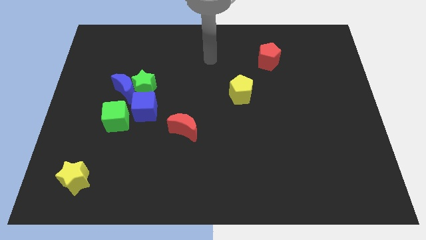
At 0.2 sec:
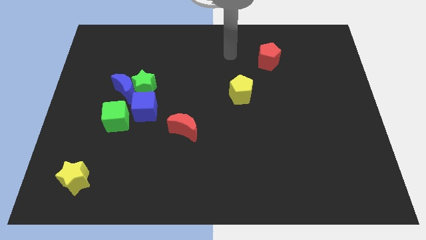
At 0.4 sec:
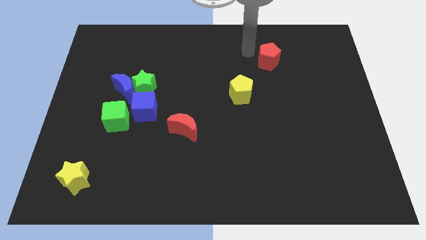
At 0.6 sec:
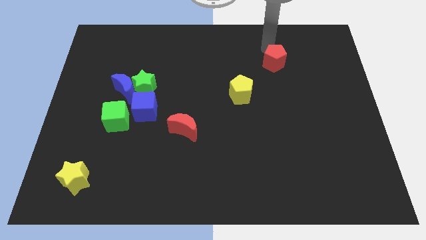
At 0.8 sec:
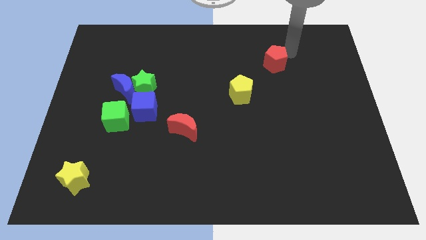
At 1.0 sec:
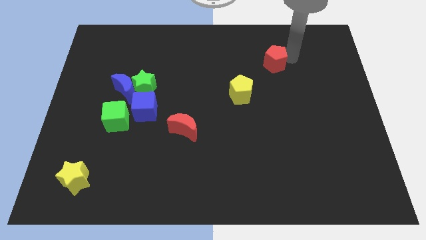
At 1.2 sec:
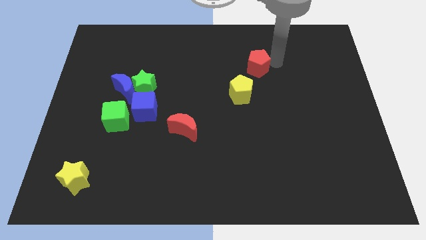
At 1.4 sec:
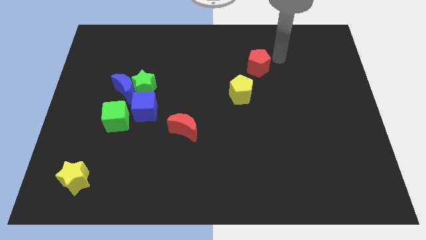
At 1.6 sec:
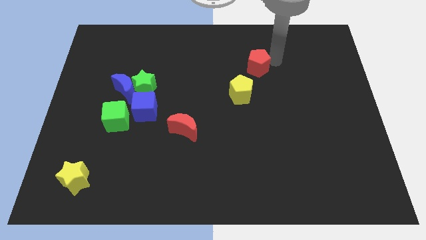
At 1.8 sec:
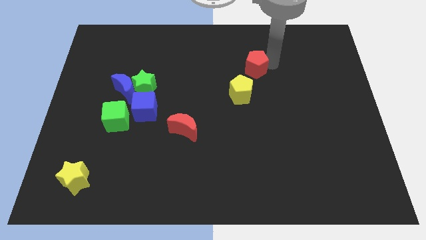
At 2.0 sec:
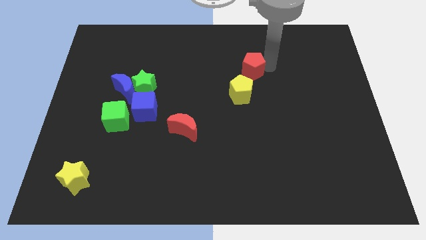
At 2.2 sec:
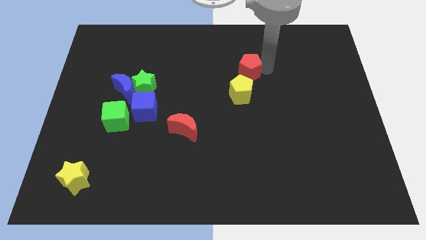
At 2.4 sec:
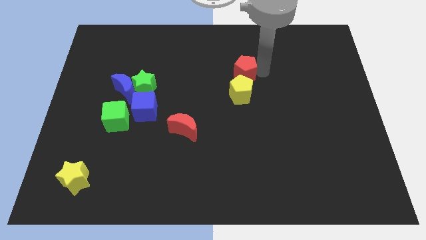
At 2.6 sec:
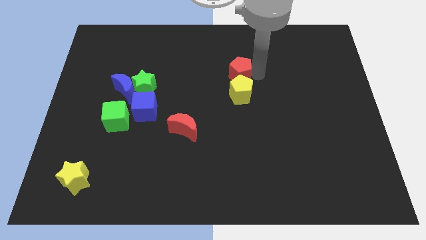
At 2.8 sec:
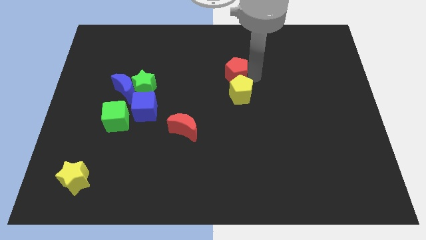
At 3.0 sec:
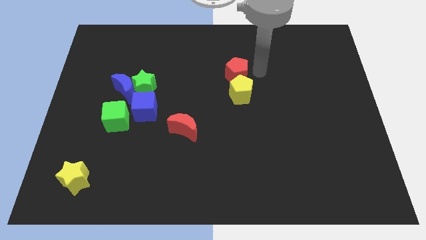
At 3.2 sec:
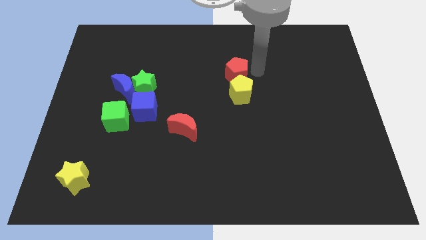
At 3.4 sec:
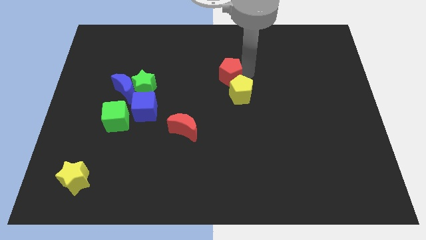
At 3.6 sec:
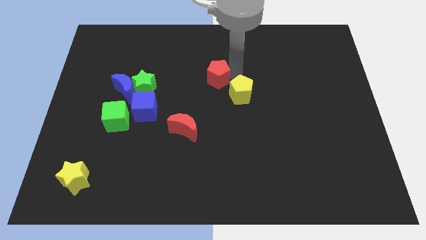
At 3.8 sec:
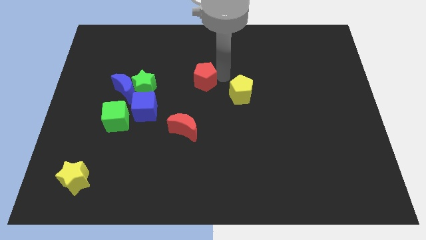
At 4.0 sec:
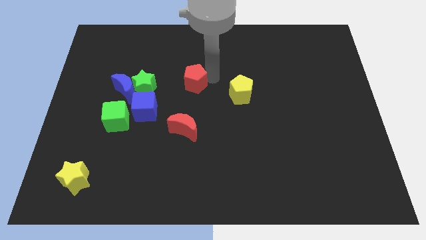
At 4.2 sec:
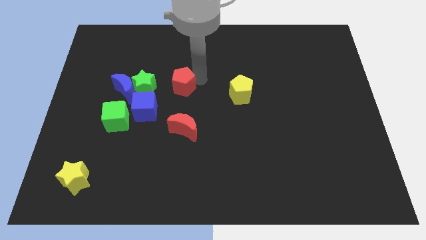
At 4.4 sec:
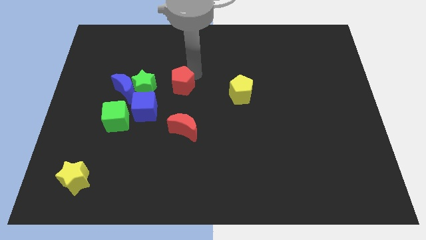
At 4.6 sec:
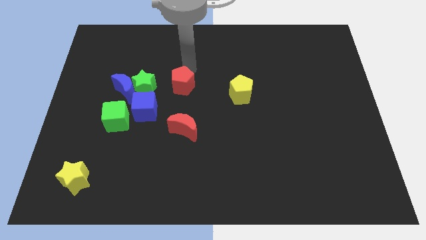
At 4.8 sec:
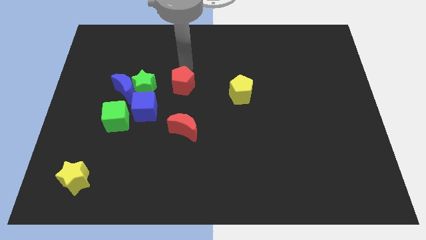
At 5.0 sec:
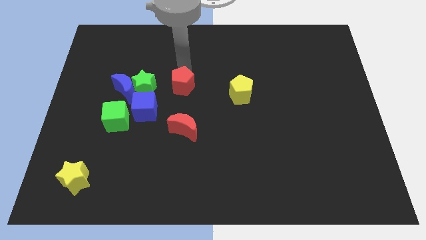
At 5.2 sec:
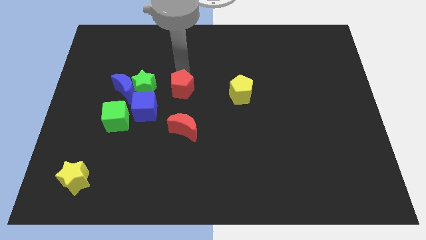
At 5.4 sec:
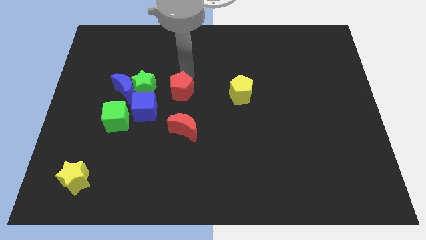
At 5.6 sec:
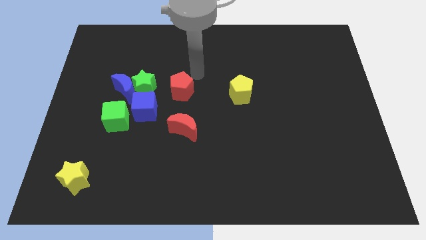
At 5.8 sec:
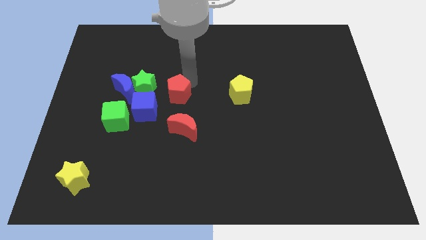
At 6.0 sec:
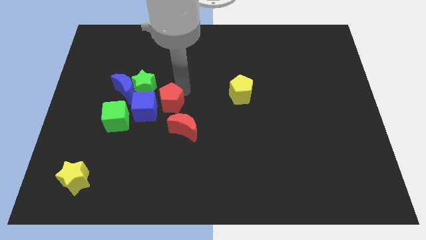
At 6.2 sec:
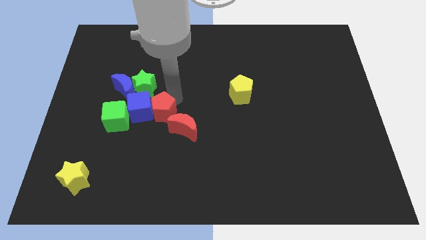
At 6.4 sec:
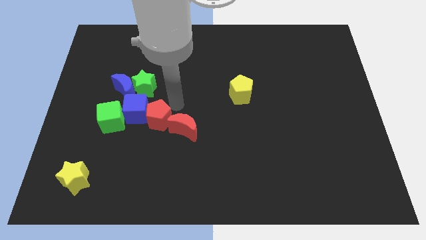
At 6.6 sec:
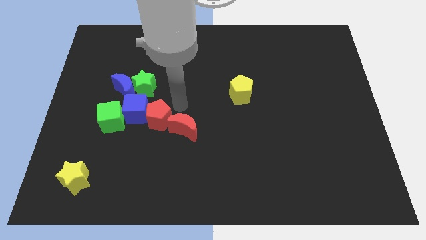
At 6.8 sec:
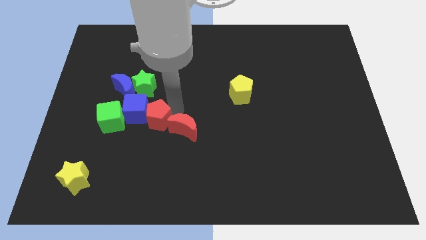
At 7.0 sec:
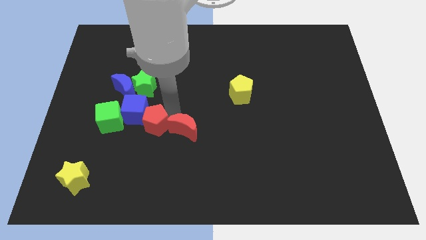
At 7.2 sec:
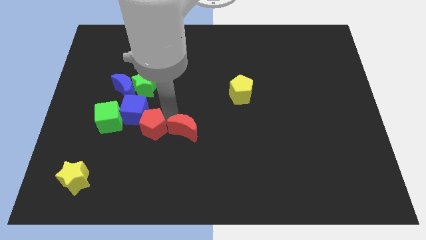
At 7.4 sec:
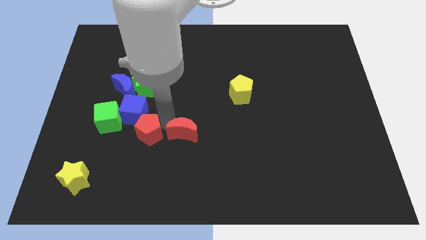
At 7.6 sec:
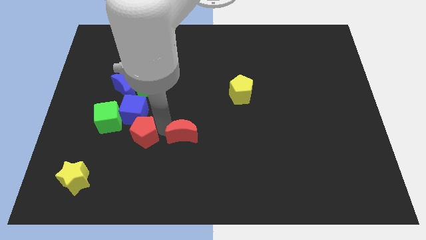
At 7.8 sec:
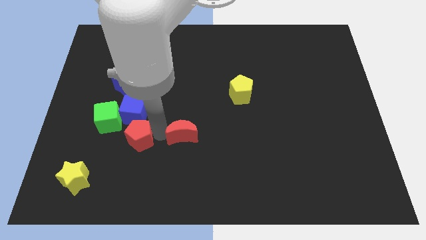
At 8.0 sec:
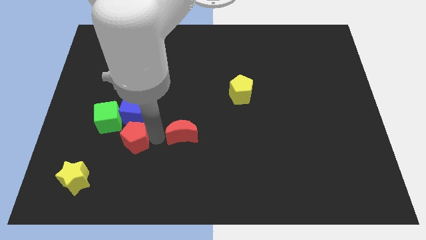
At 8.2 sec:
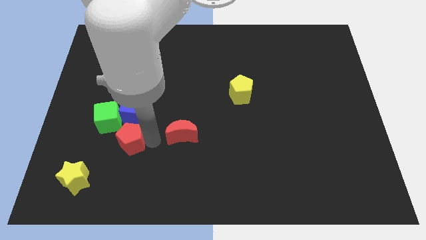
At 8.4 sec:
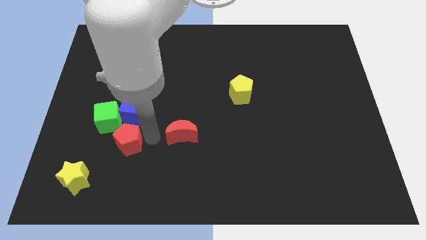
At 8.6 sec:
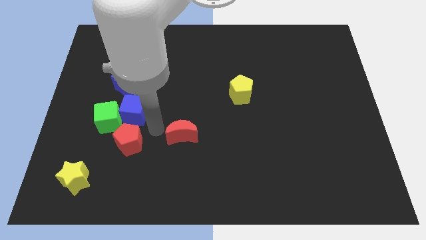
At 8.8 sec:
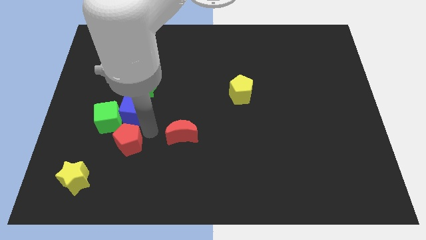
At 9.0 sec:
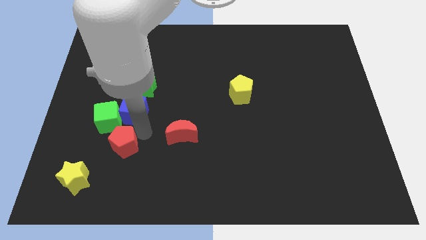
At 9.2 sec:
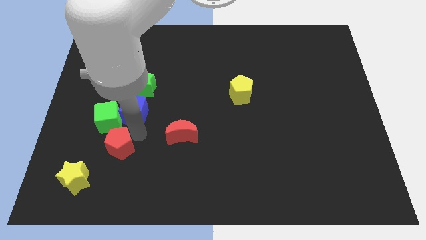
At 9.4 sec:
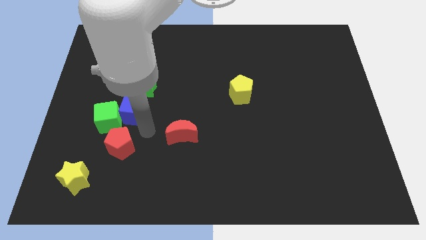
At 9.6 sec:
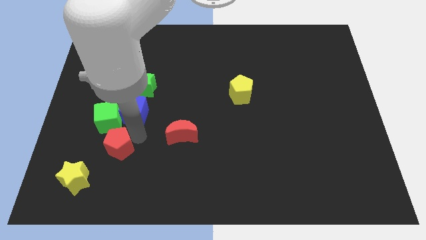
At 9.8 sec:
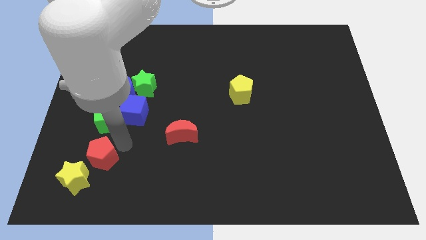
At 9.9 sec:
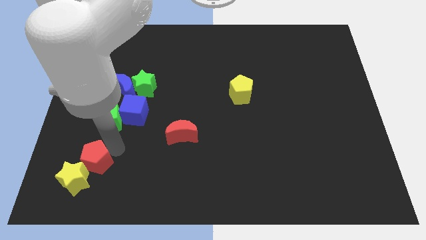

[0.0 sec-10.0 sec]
push the red pentagon close to the yellow star

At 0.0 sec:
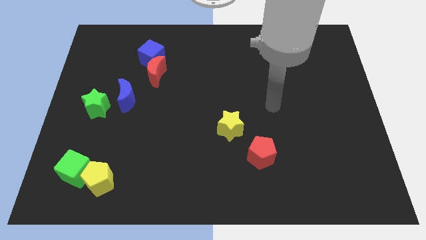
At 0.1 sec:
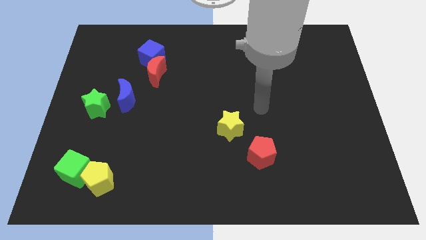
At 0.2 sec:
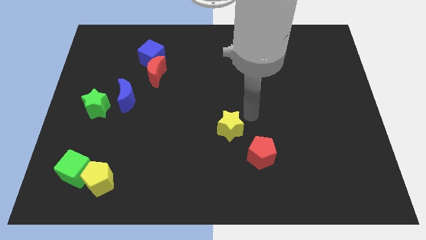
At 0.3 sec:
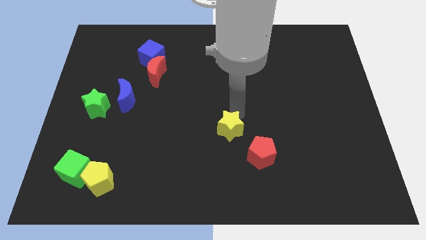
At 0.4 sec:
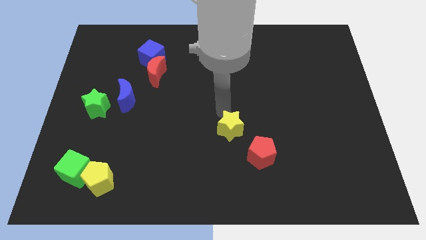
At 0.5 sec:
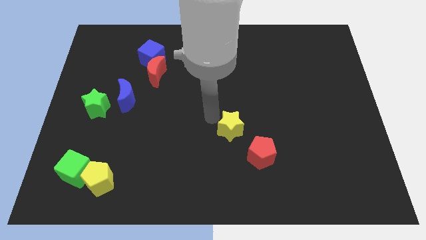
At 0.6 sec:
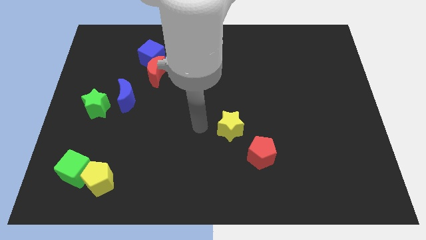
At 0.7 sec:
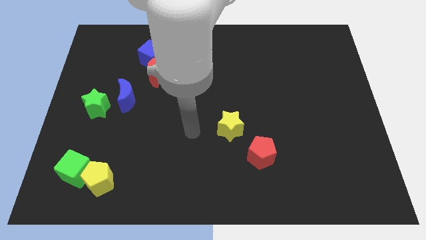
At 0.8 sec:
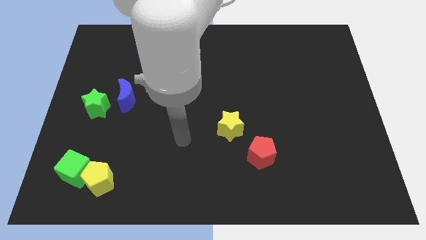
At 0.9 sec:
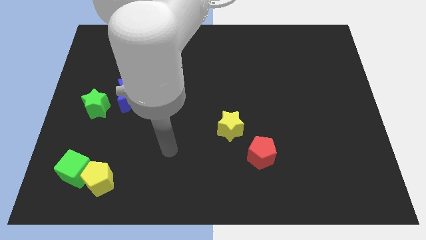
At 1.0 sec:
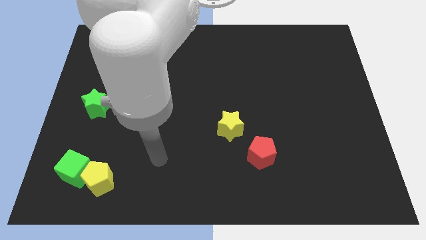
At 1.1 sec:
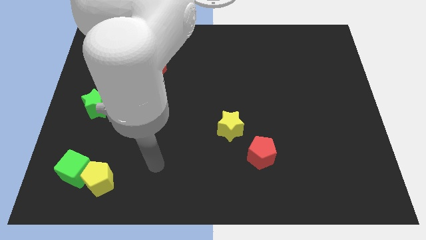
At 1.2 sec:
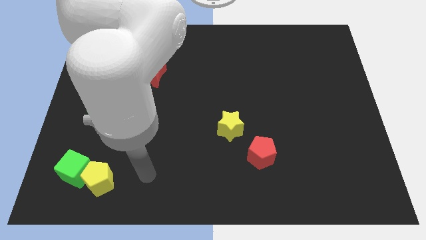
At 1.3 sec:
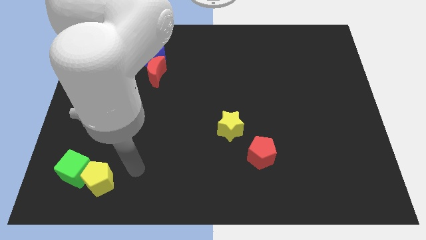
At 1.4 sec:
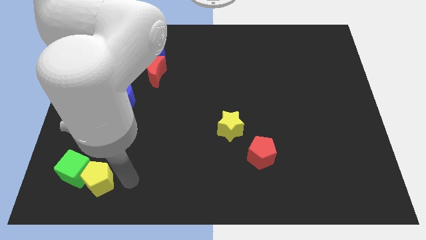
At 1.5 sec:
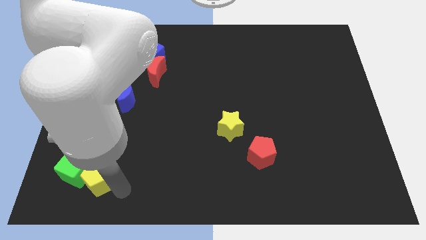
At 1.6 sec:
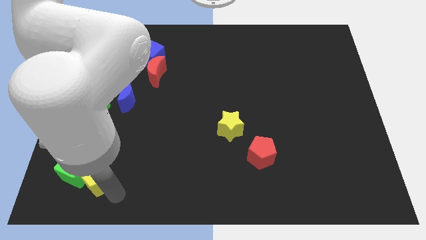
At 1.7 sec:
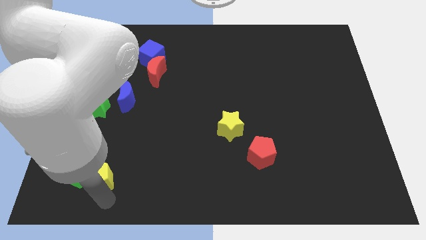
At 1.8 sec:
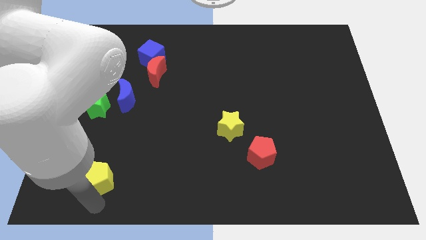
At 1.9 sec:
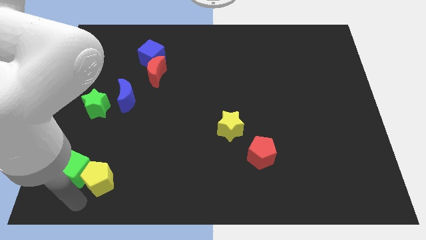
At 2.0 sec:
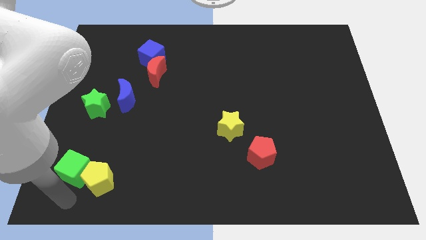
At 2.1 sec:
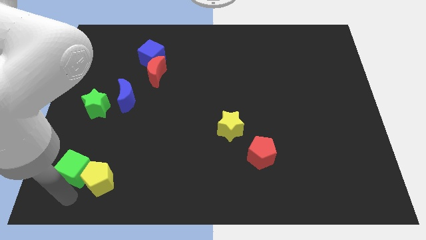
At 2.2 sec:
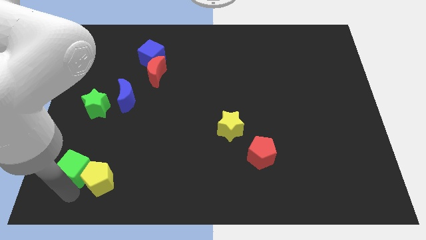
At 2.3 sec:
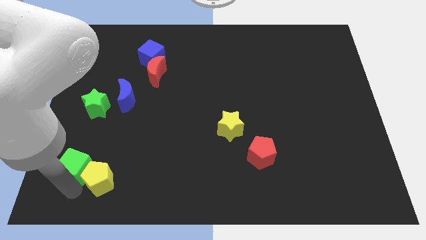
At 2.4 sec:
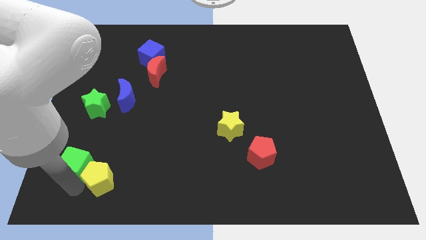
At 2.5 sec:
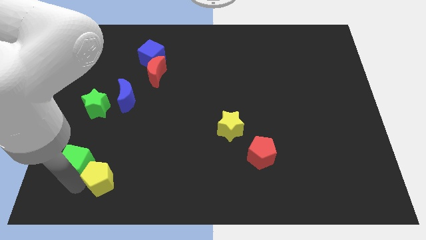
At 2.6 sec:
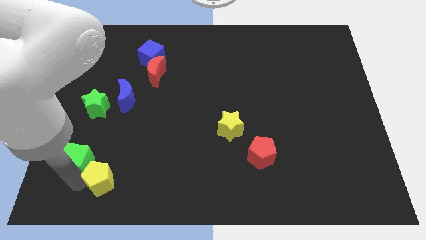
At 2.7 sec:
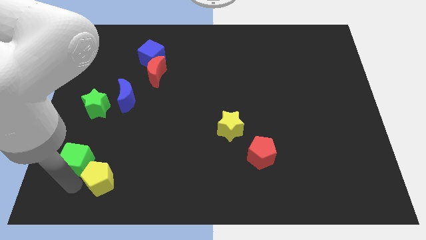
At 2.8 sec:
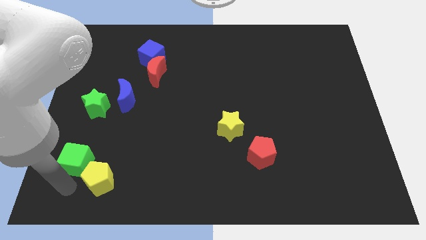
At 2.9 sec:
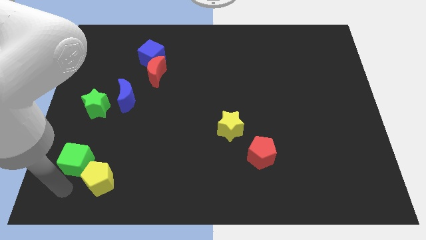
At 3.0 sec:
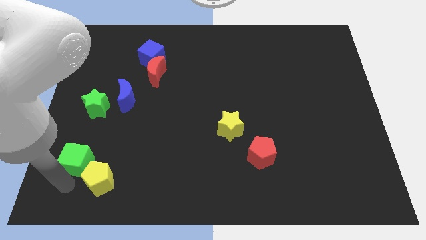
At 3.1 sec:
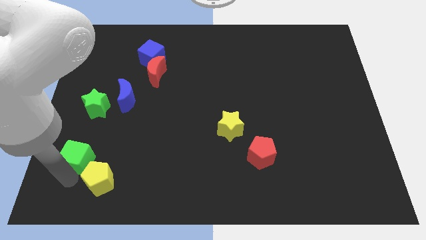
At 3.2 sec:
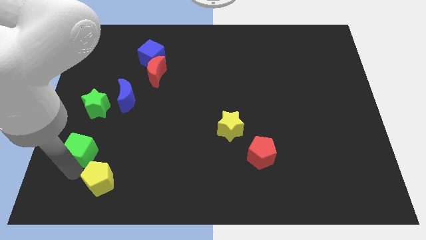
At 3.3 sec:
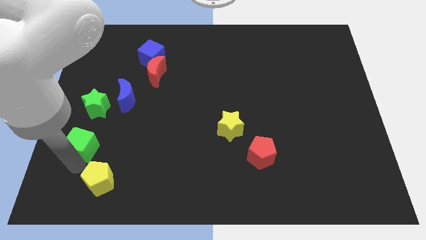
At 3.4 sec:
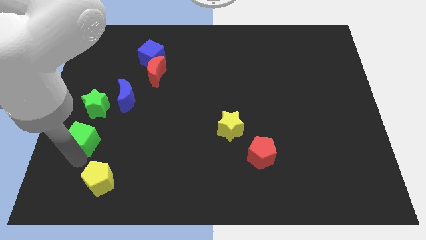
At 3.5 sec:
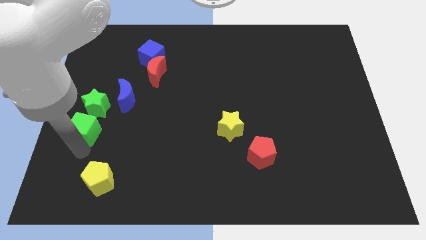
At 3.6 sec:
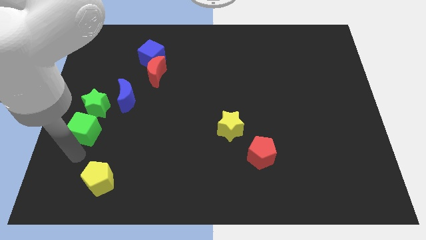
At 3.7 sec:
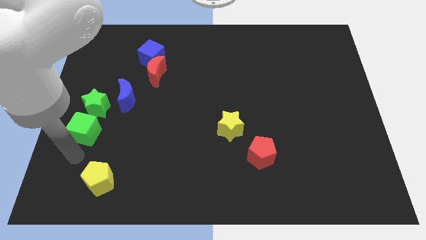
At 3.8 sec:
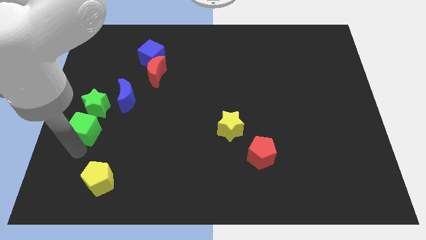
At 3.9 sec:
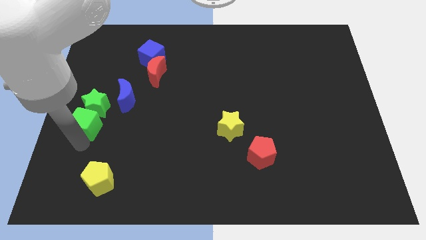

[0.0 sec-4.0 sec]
slide the green cube to the green star
